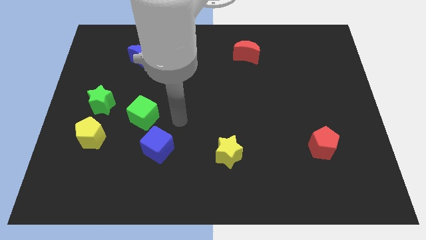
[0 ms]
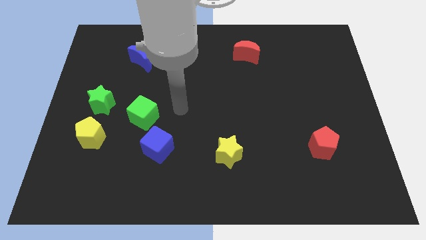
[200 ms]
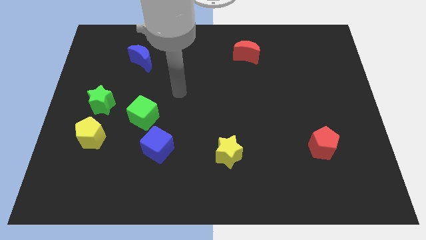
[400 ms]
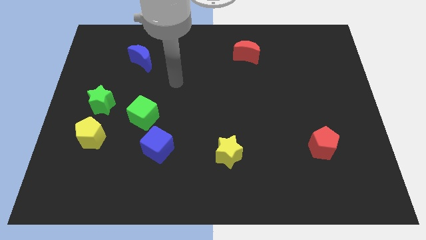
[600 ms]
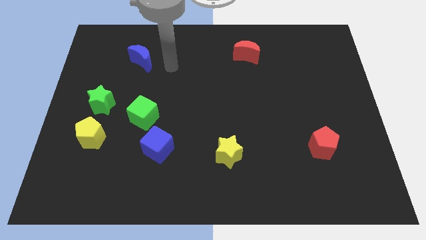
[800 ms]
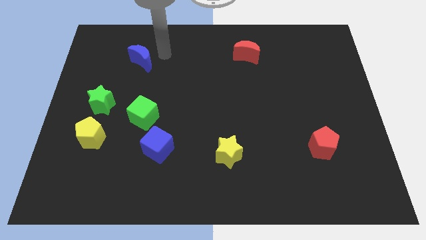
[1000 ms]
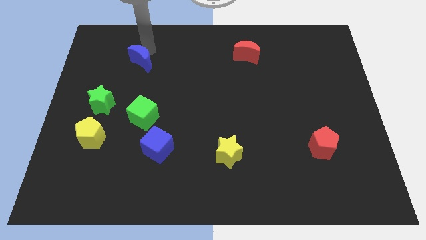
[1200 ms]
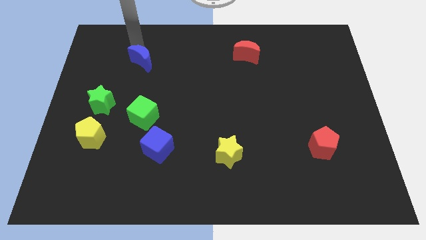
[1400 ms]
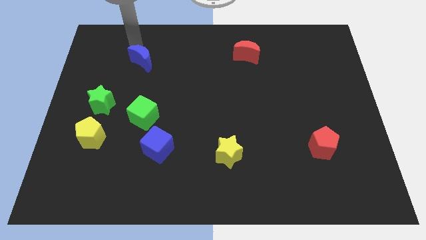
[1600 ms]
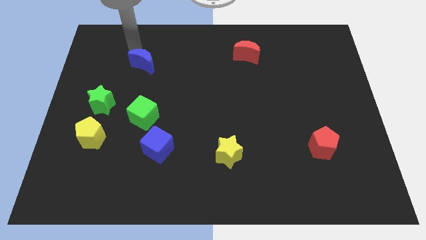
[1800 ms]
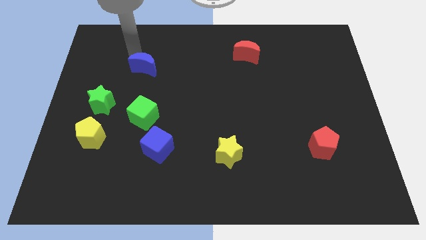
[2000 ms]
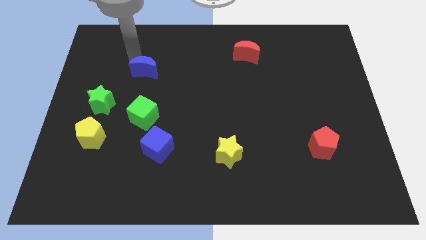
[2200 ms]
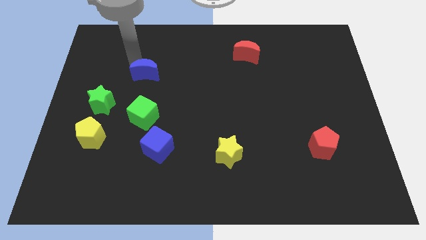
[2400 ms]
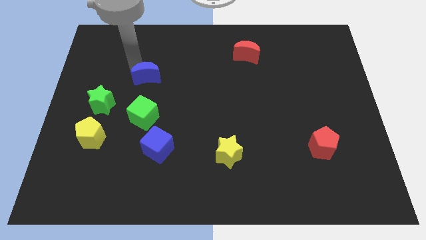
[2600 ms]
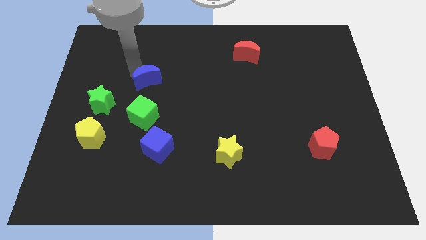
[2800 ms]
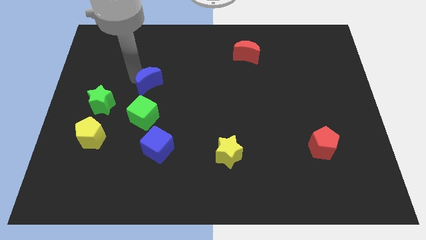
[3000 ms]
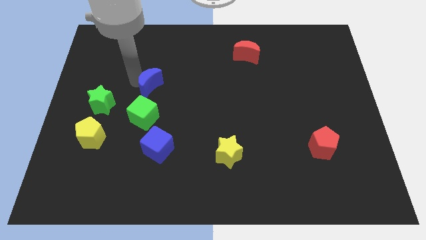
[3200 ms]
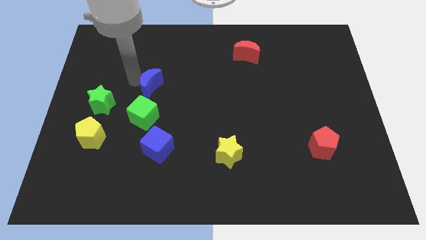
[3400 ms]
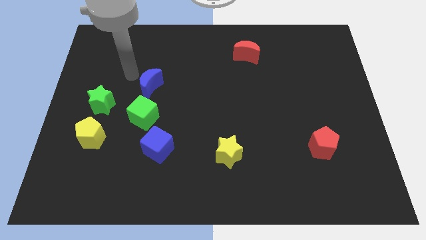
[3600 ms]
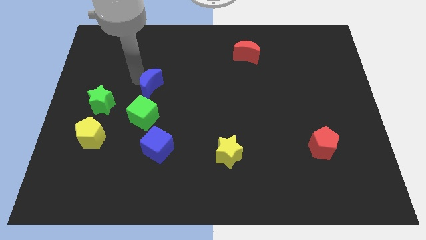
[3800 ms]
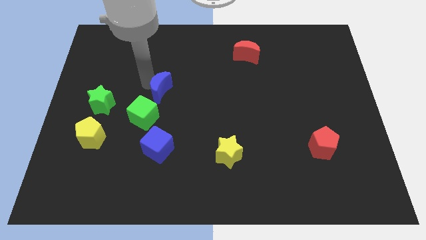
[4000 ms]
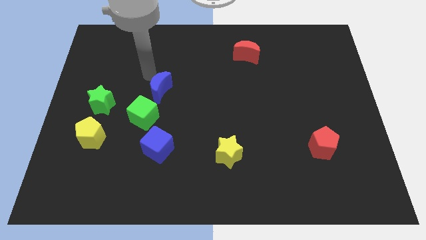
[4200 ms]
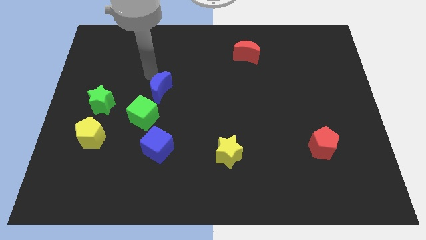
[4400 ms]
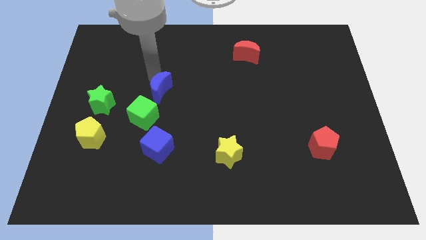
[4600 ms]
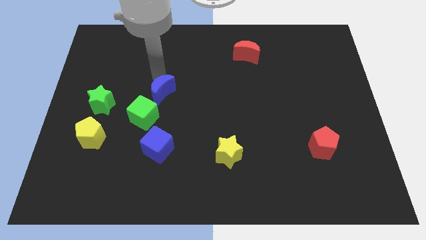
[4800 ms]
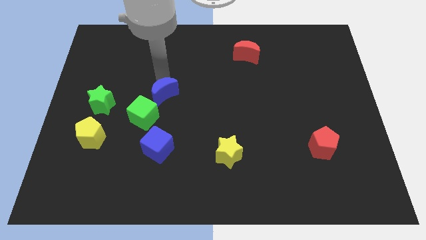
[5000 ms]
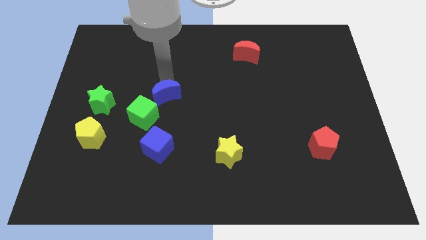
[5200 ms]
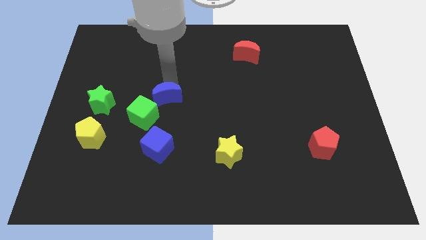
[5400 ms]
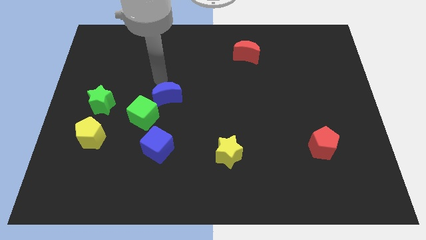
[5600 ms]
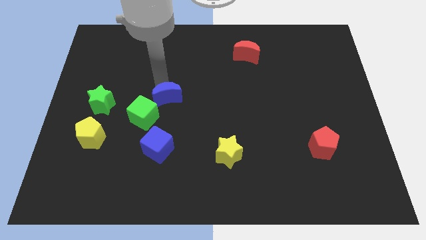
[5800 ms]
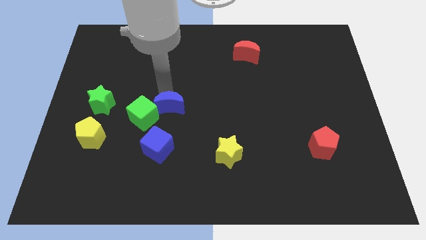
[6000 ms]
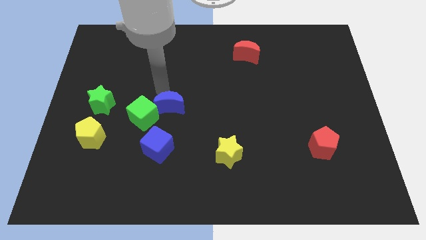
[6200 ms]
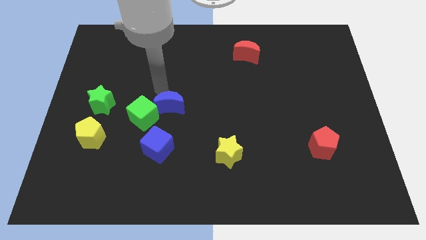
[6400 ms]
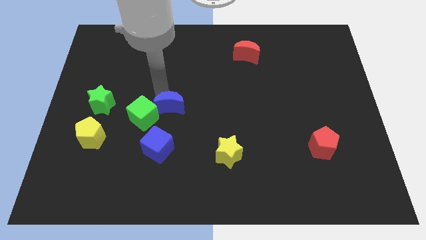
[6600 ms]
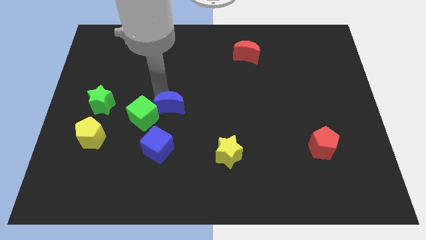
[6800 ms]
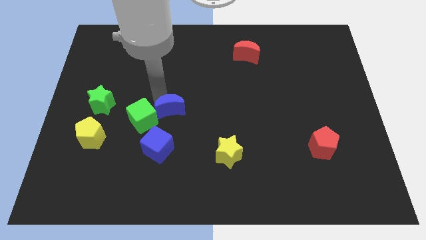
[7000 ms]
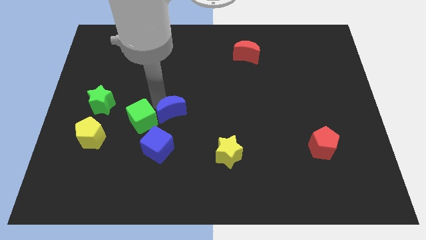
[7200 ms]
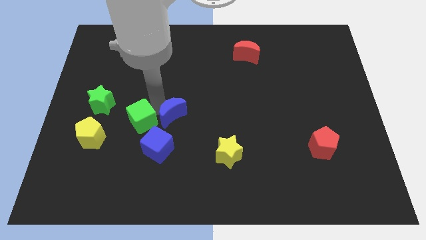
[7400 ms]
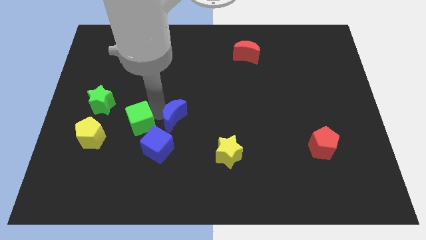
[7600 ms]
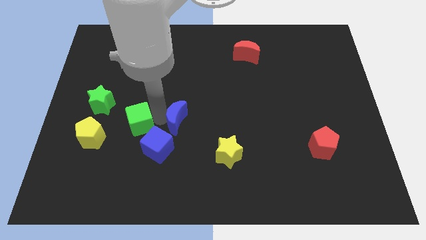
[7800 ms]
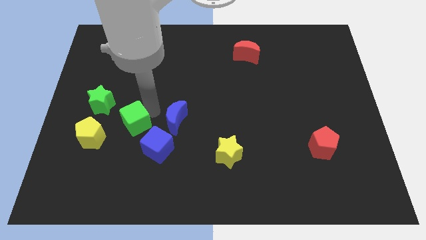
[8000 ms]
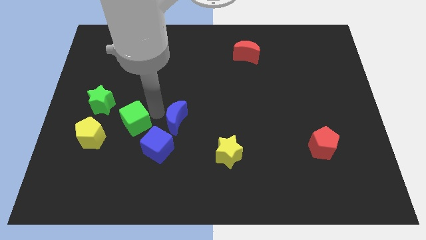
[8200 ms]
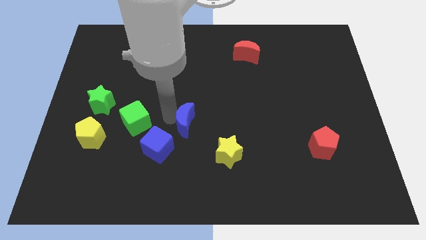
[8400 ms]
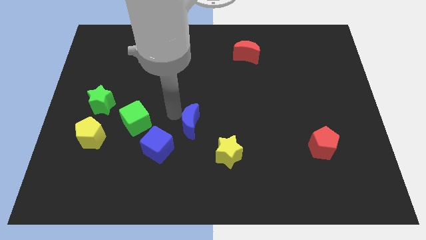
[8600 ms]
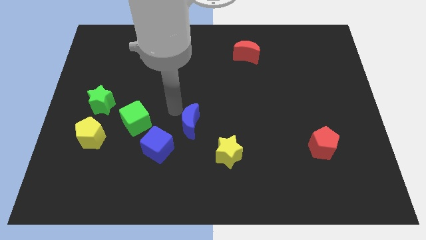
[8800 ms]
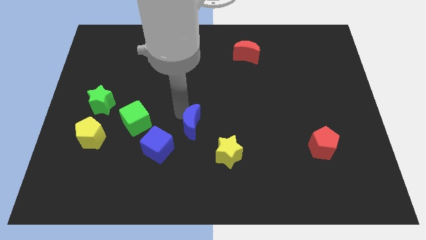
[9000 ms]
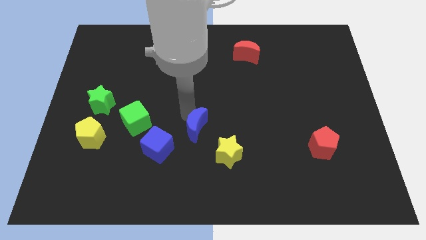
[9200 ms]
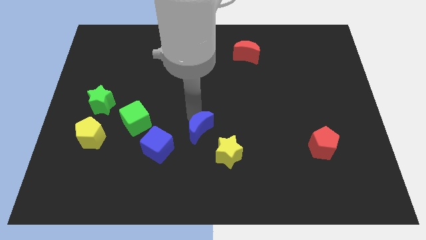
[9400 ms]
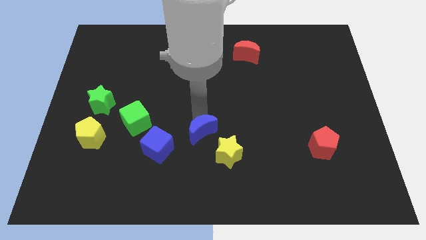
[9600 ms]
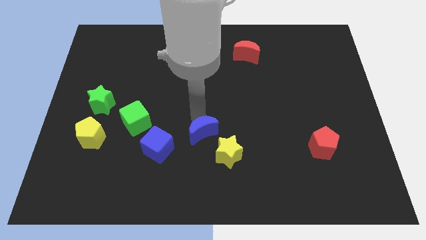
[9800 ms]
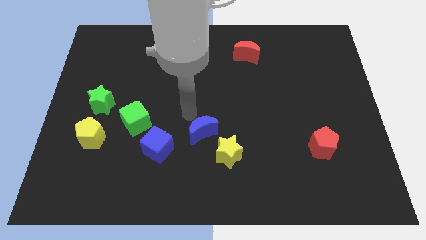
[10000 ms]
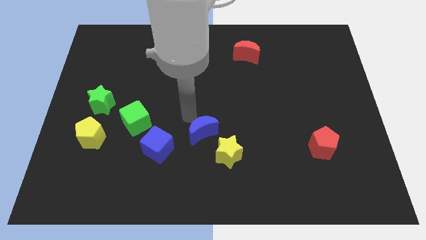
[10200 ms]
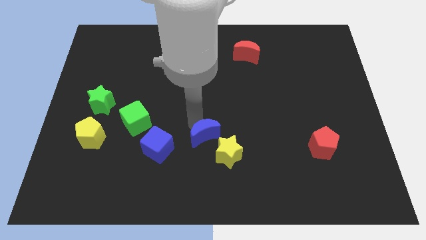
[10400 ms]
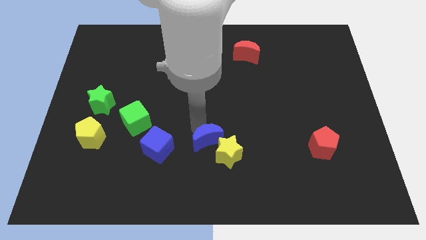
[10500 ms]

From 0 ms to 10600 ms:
slide the blue moon close to the yellow star

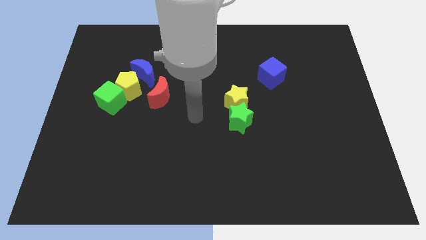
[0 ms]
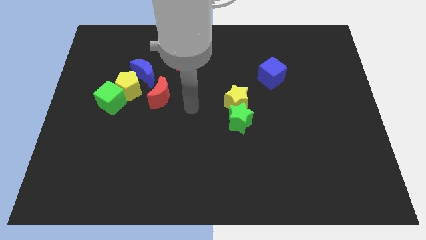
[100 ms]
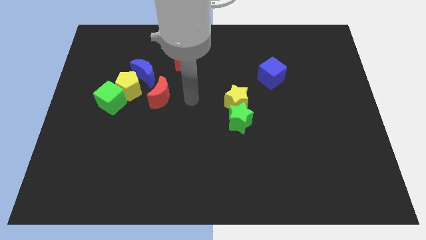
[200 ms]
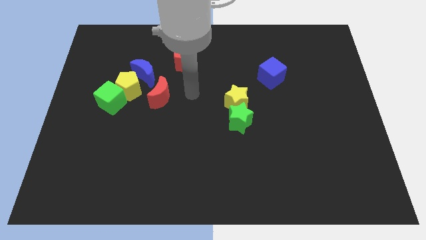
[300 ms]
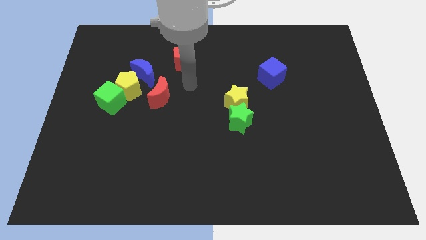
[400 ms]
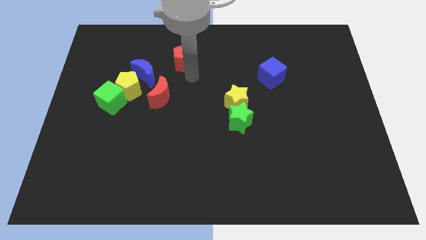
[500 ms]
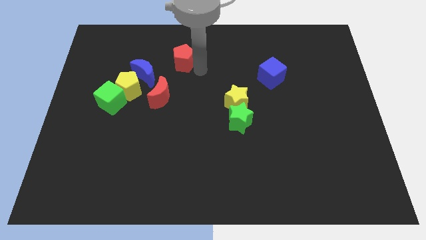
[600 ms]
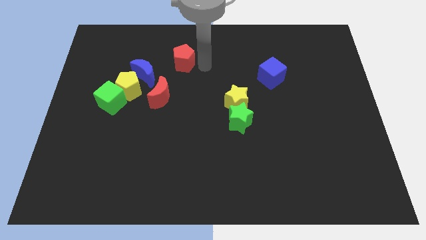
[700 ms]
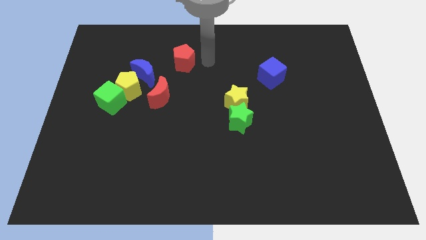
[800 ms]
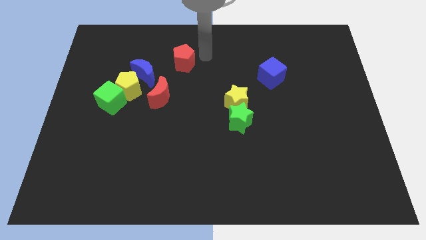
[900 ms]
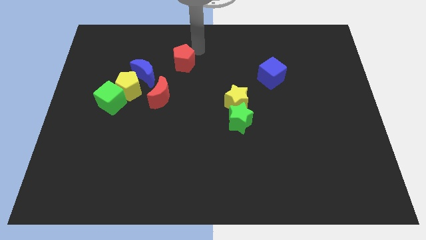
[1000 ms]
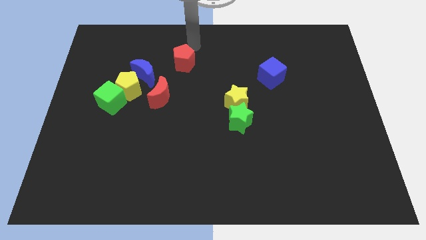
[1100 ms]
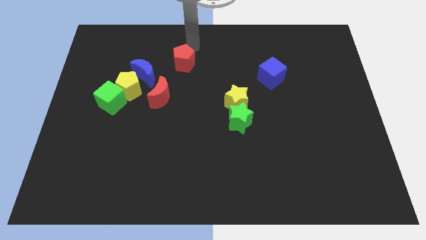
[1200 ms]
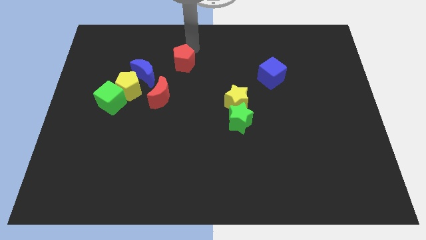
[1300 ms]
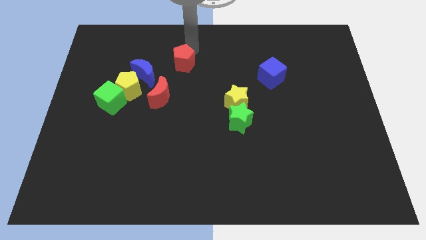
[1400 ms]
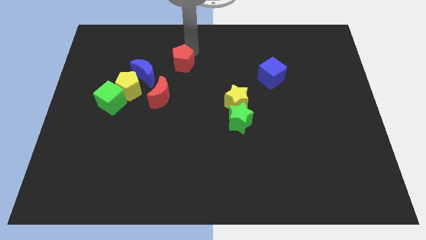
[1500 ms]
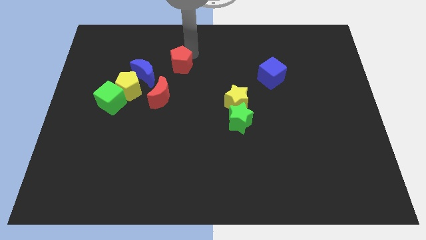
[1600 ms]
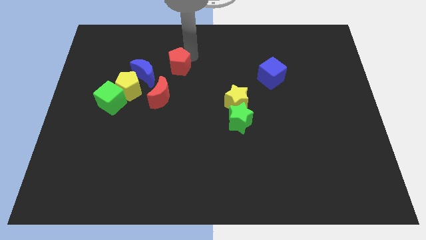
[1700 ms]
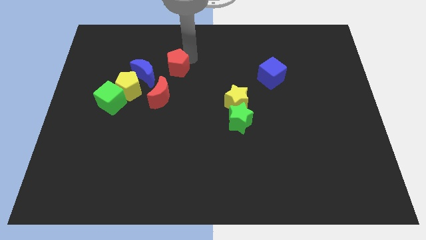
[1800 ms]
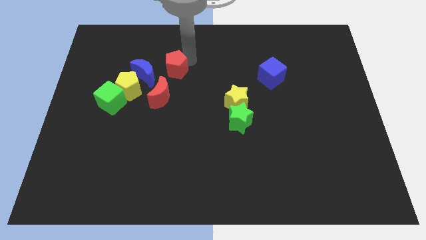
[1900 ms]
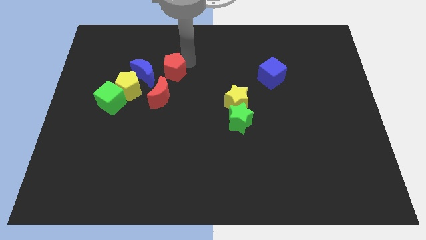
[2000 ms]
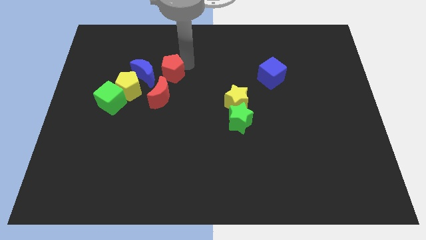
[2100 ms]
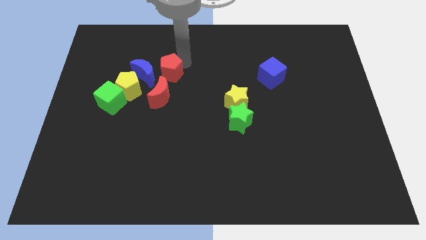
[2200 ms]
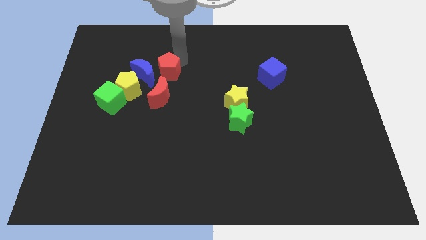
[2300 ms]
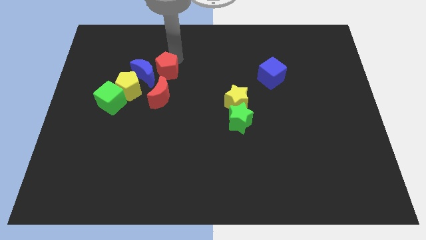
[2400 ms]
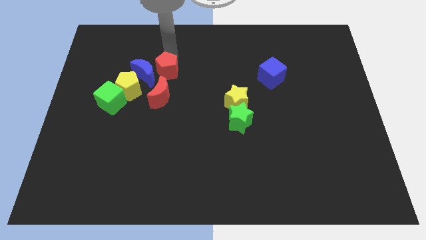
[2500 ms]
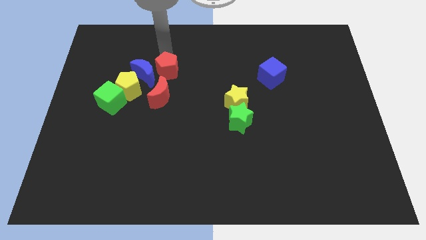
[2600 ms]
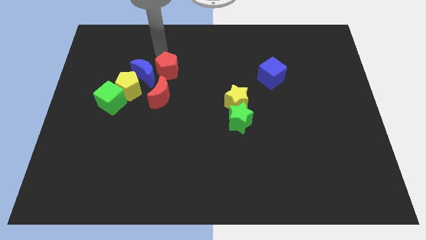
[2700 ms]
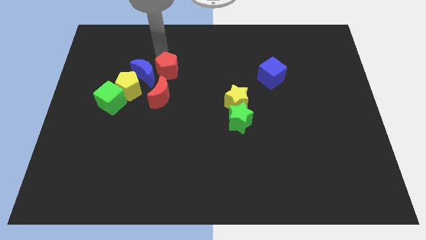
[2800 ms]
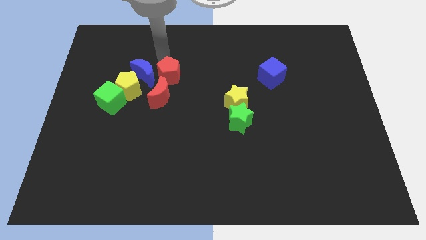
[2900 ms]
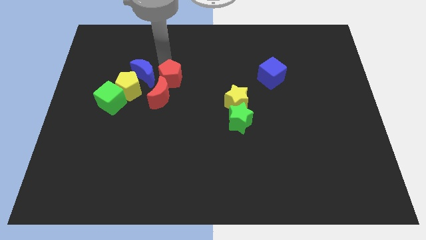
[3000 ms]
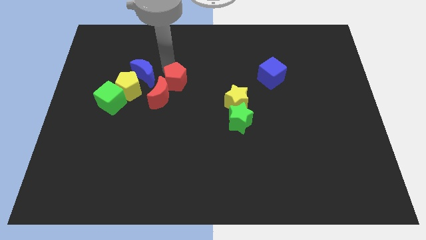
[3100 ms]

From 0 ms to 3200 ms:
move the red pentagon to the red moon
